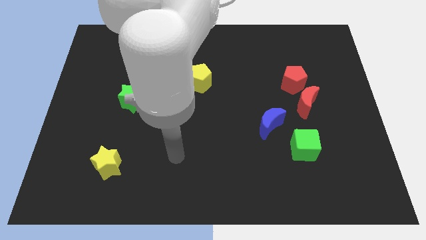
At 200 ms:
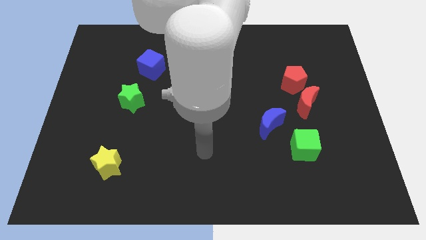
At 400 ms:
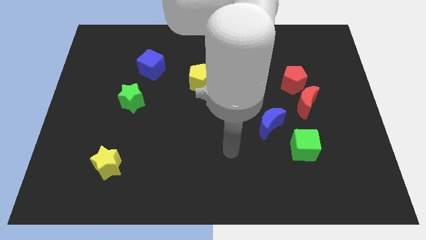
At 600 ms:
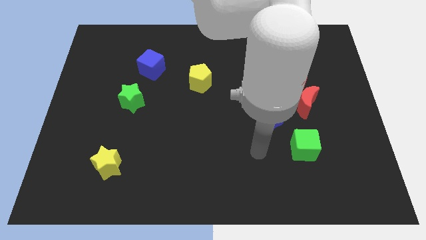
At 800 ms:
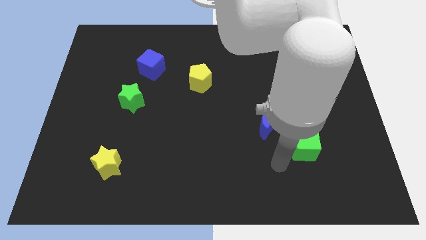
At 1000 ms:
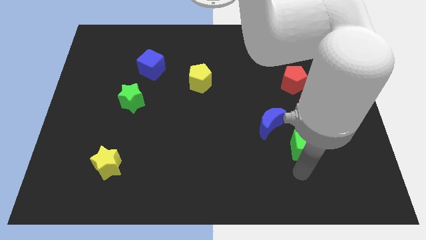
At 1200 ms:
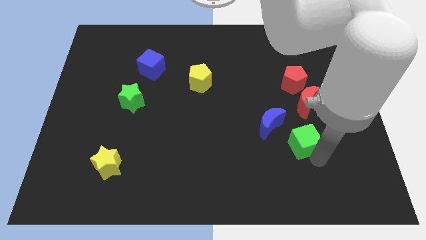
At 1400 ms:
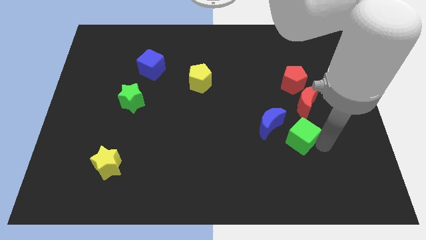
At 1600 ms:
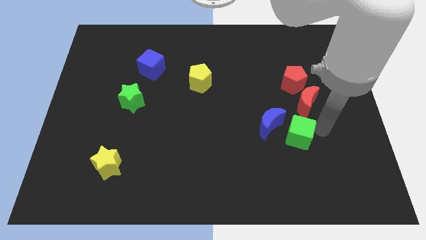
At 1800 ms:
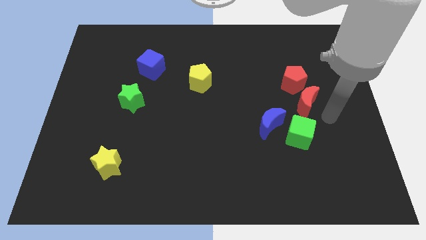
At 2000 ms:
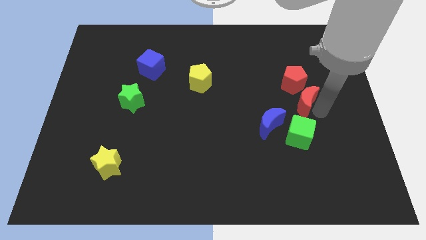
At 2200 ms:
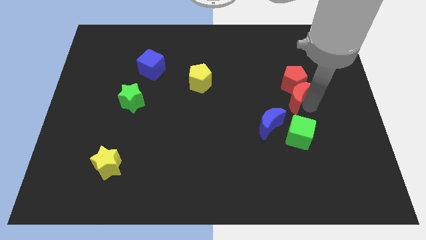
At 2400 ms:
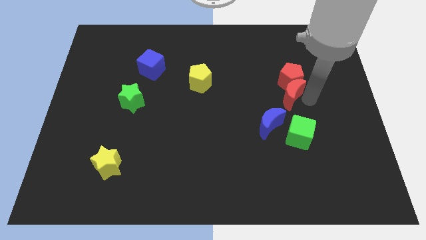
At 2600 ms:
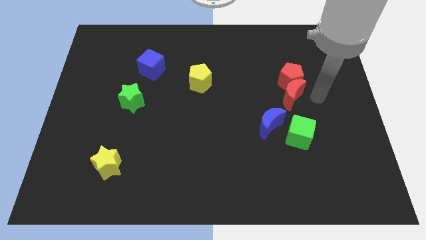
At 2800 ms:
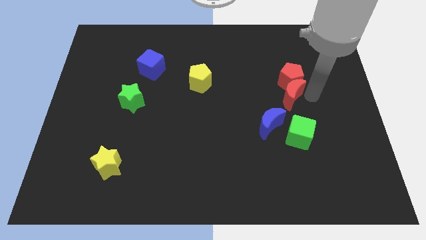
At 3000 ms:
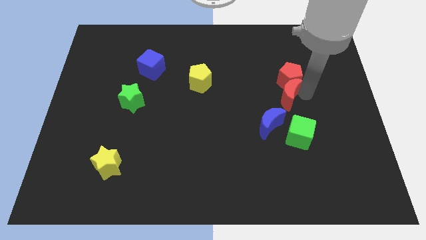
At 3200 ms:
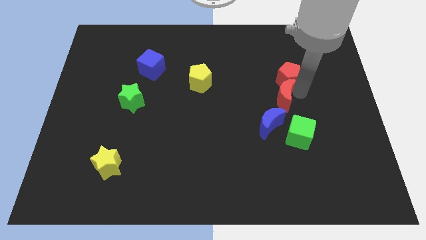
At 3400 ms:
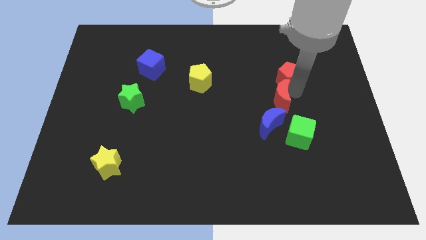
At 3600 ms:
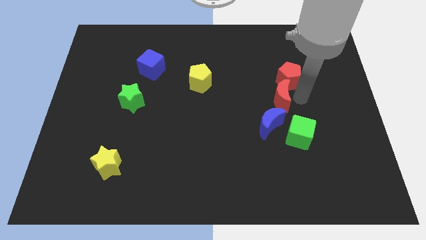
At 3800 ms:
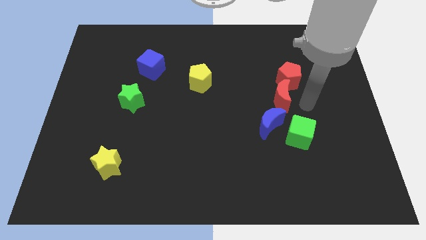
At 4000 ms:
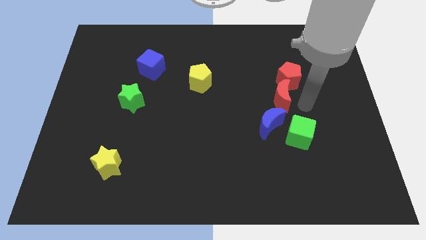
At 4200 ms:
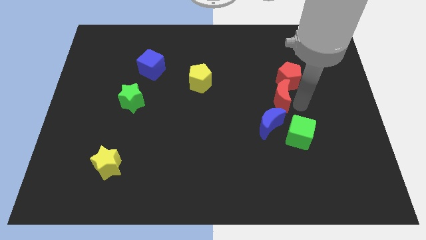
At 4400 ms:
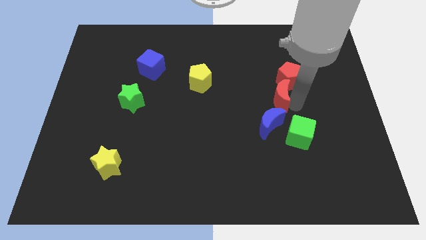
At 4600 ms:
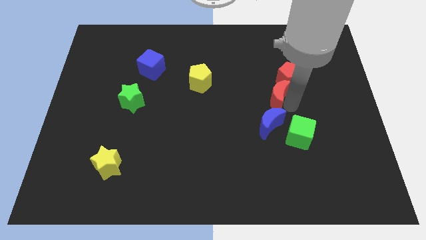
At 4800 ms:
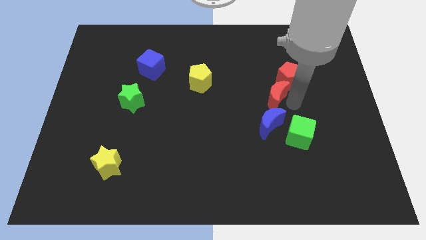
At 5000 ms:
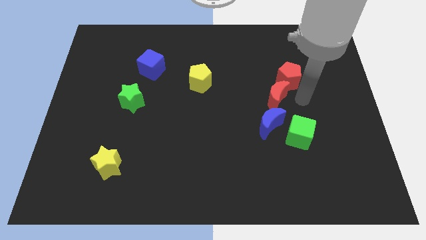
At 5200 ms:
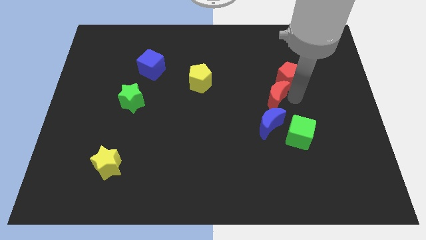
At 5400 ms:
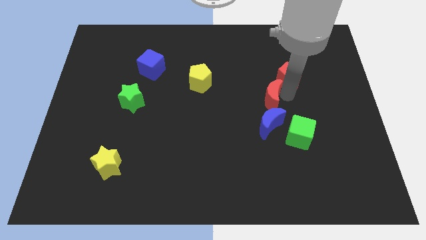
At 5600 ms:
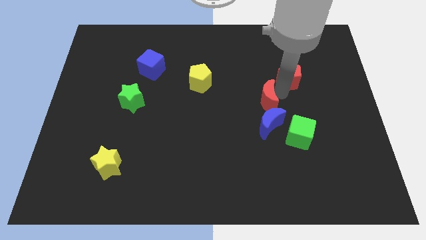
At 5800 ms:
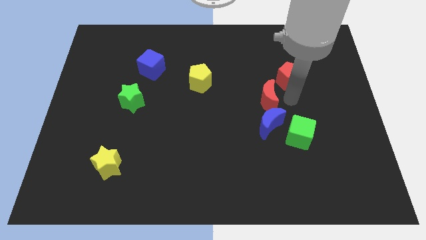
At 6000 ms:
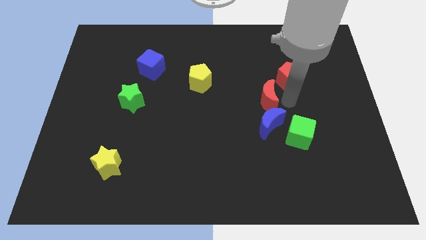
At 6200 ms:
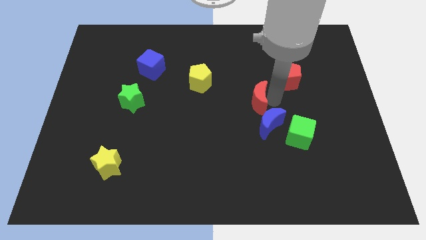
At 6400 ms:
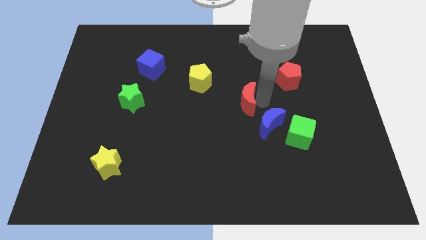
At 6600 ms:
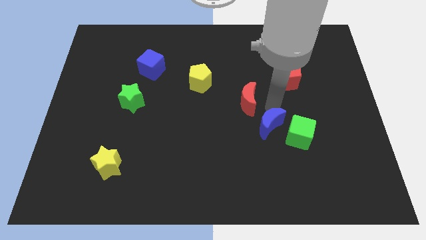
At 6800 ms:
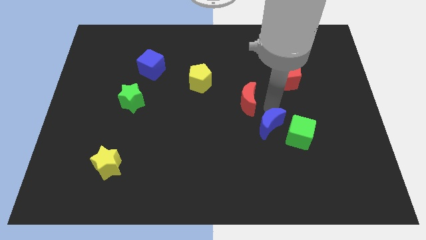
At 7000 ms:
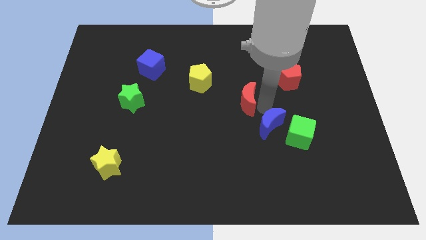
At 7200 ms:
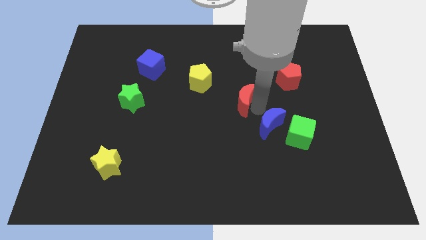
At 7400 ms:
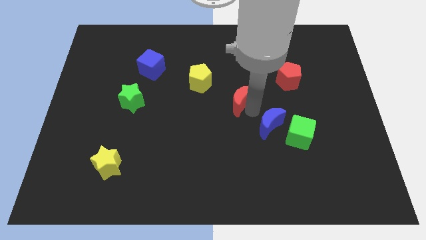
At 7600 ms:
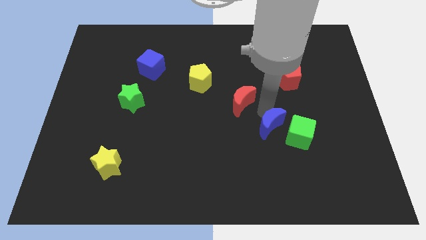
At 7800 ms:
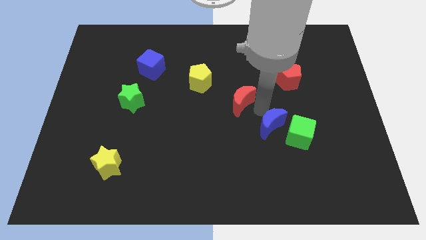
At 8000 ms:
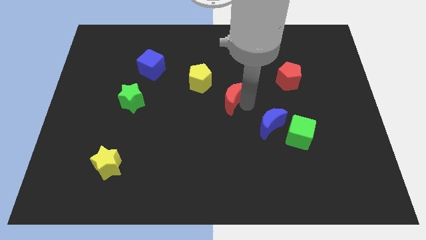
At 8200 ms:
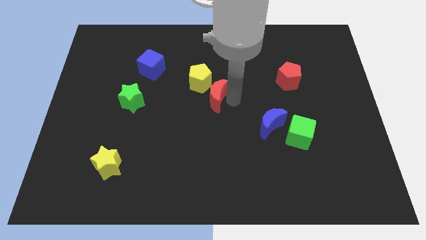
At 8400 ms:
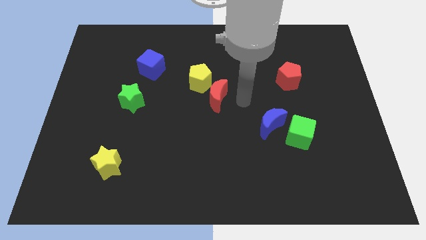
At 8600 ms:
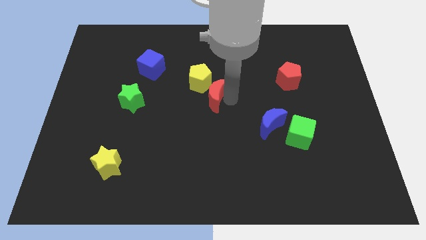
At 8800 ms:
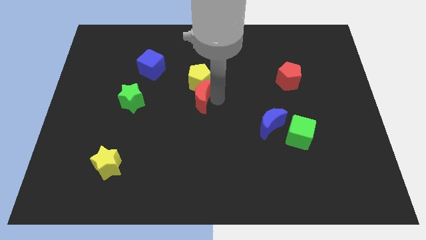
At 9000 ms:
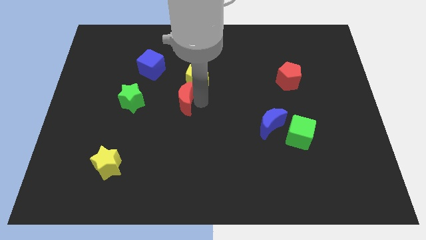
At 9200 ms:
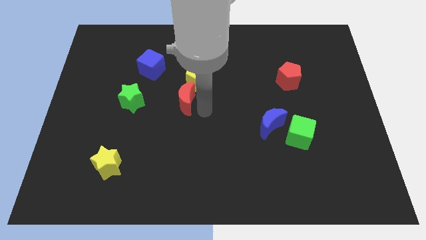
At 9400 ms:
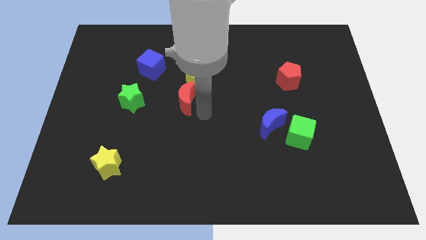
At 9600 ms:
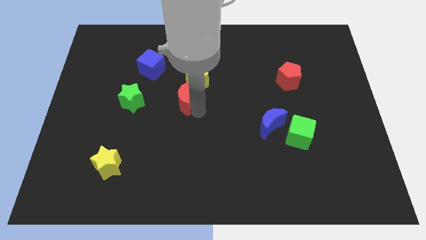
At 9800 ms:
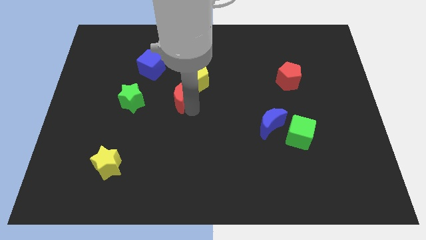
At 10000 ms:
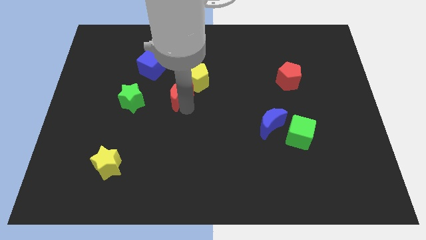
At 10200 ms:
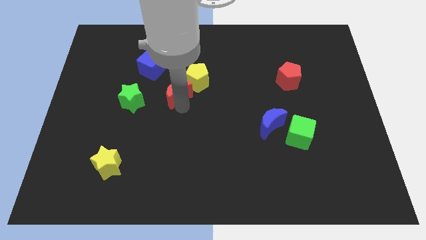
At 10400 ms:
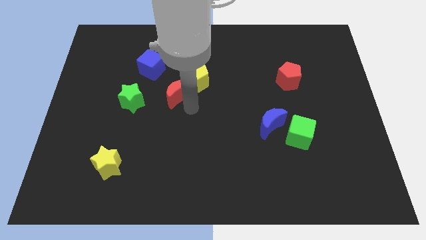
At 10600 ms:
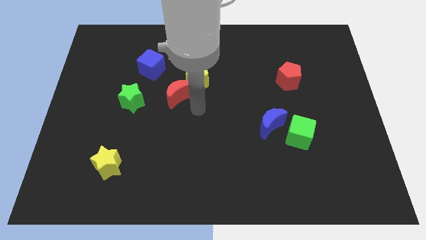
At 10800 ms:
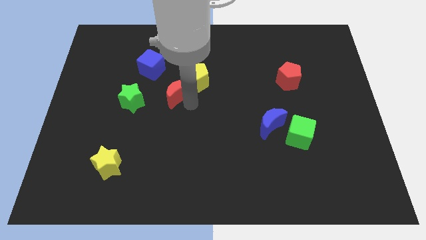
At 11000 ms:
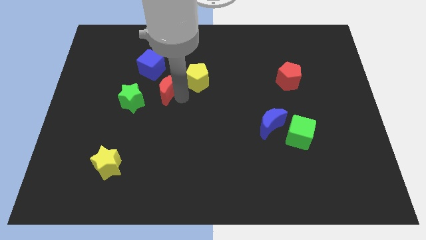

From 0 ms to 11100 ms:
put the red moon to the top right of the green star

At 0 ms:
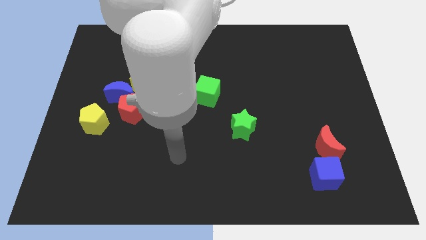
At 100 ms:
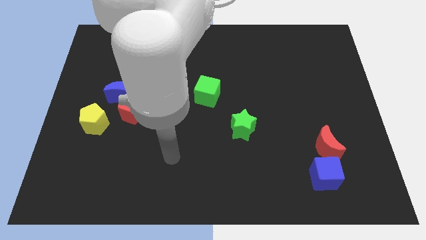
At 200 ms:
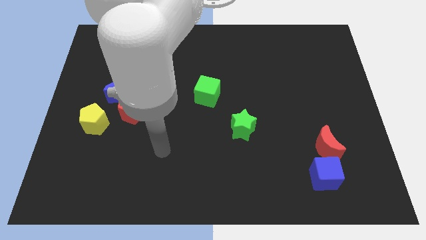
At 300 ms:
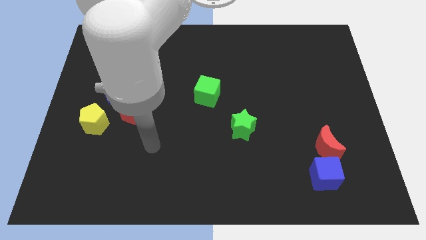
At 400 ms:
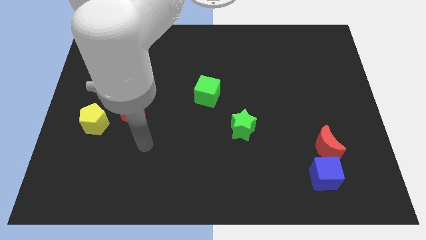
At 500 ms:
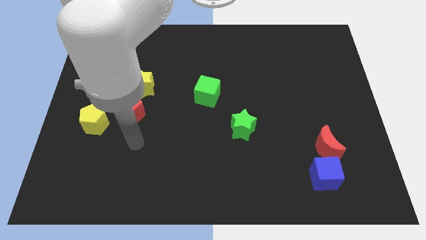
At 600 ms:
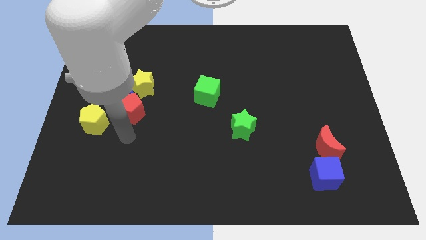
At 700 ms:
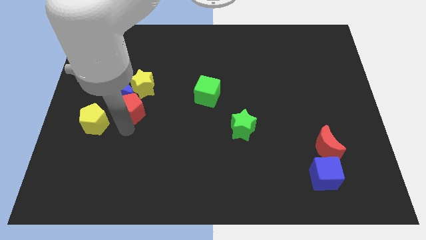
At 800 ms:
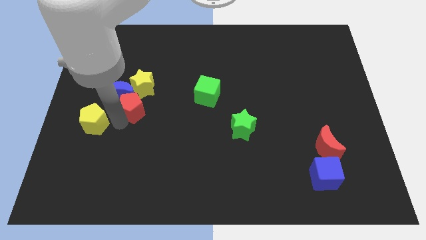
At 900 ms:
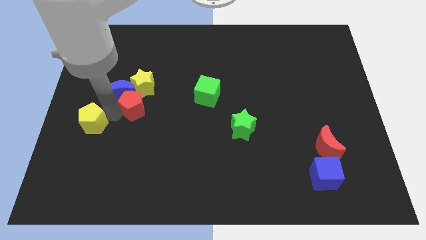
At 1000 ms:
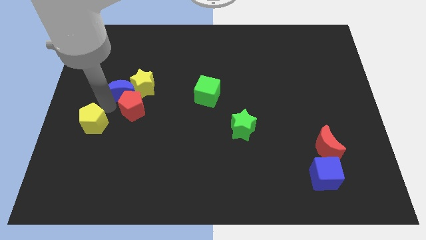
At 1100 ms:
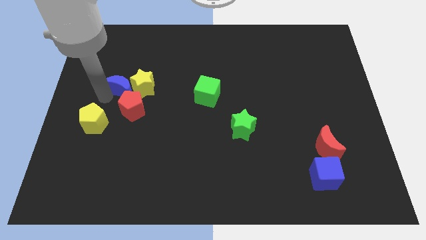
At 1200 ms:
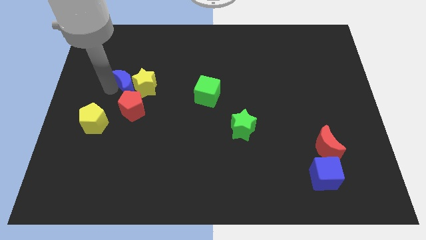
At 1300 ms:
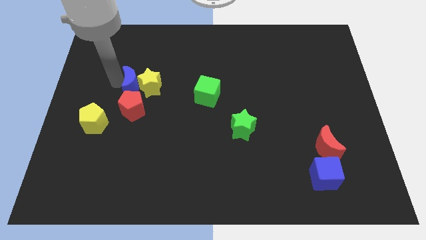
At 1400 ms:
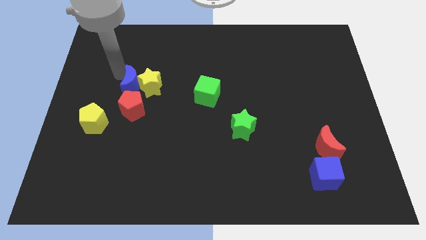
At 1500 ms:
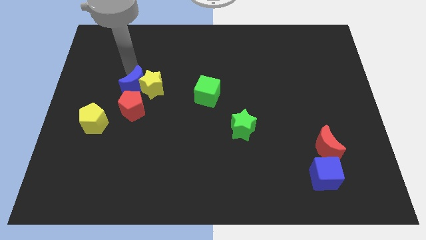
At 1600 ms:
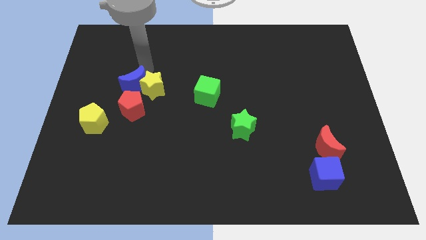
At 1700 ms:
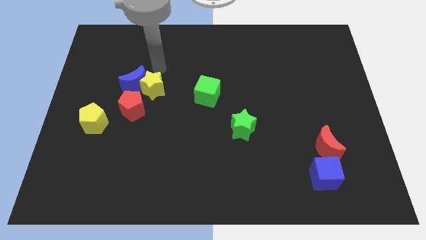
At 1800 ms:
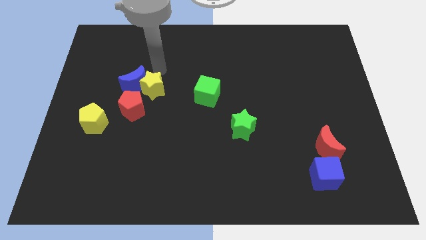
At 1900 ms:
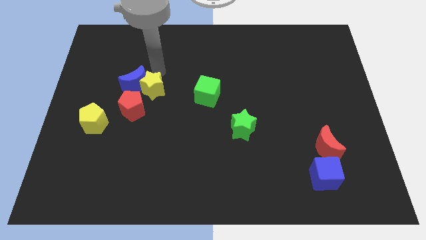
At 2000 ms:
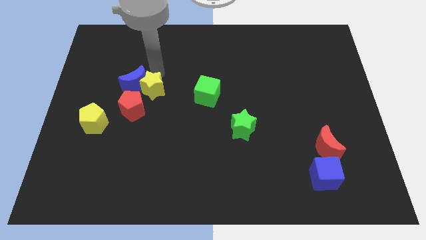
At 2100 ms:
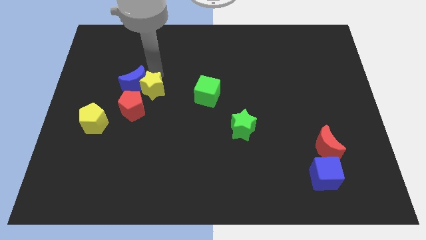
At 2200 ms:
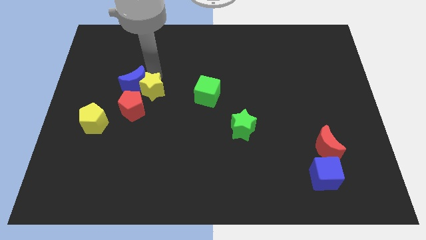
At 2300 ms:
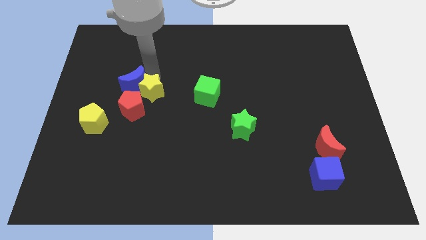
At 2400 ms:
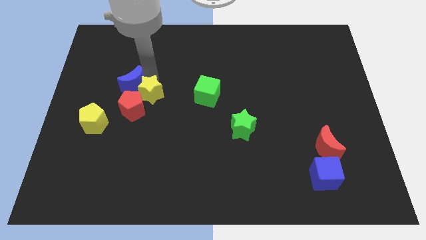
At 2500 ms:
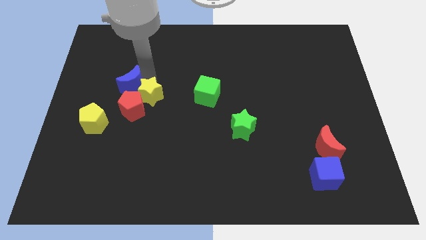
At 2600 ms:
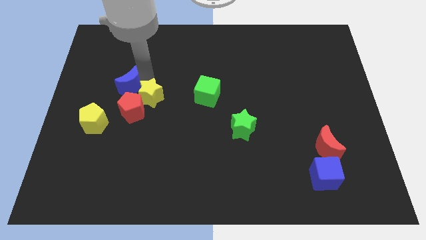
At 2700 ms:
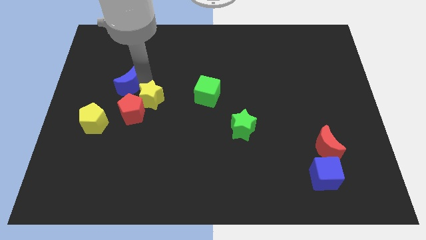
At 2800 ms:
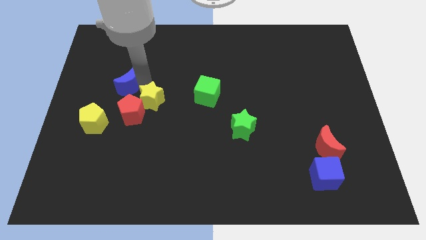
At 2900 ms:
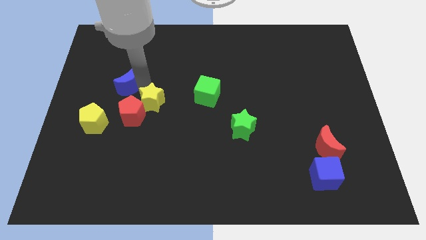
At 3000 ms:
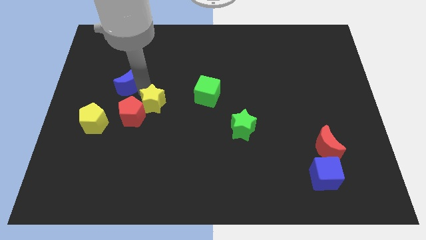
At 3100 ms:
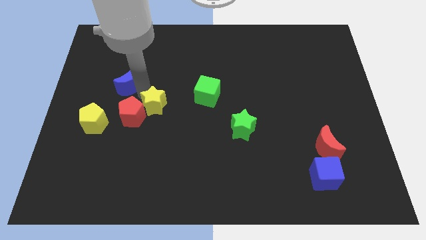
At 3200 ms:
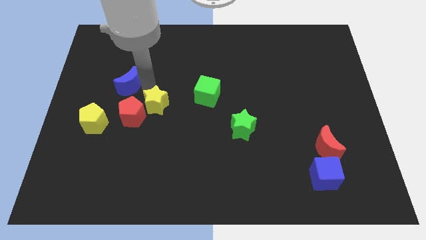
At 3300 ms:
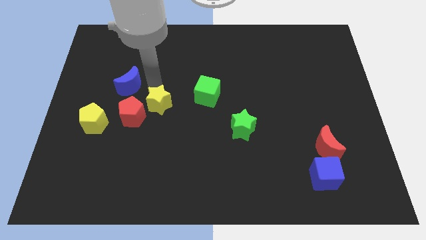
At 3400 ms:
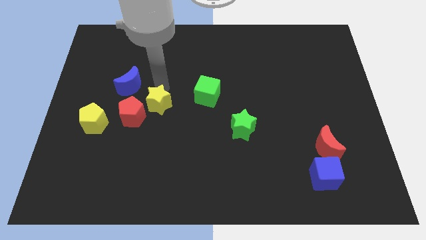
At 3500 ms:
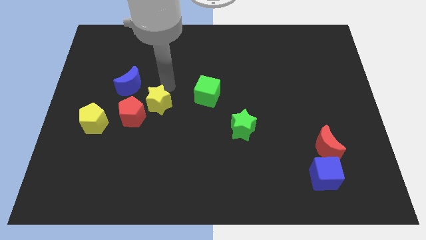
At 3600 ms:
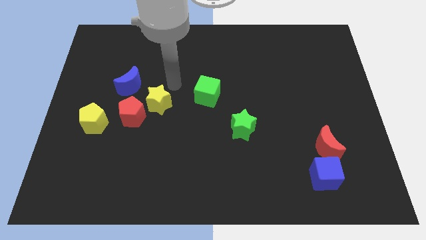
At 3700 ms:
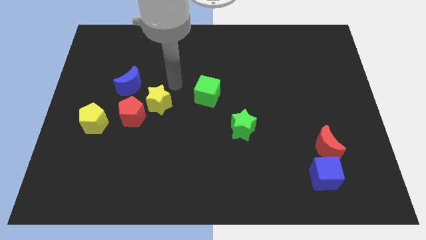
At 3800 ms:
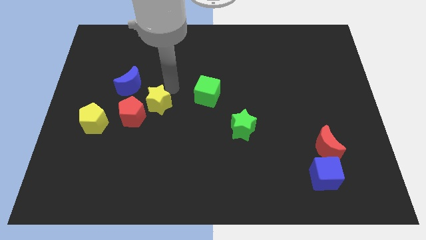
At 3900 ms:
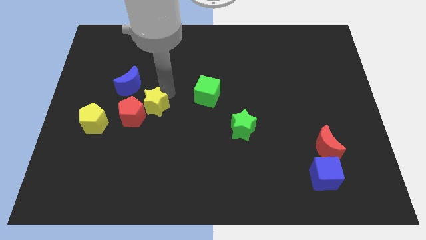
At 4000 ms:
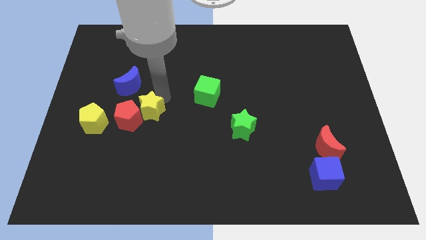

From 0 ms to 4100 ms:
move the yellow star to the right of the yellow pentagon
